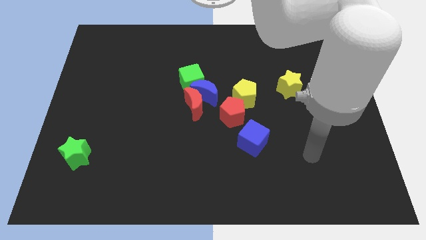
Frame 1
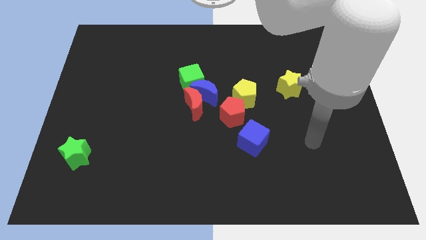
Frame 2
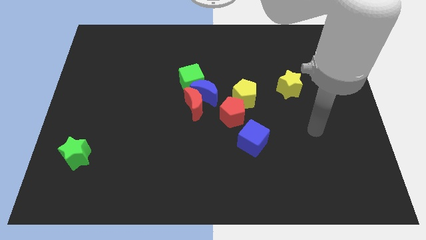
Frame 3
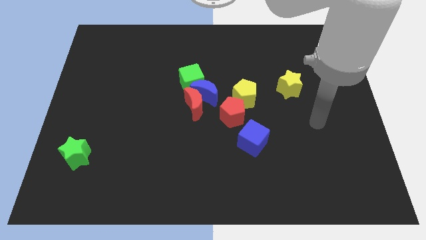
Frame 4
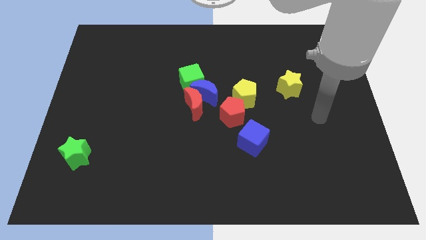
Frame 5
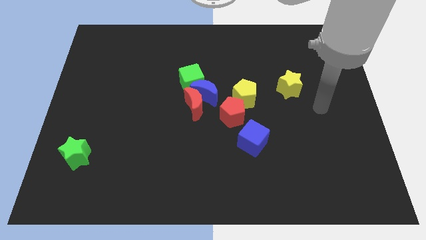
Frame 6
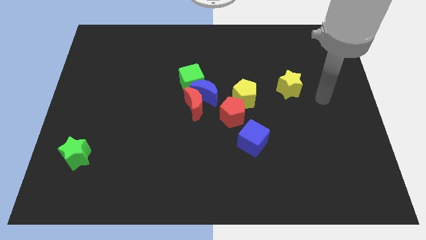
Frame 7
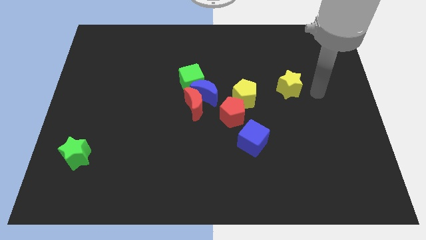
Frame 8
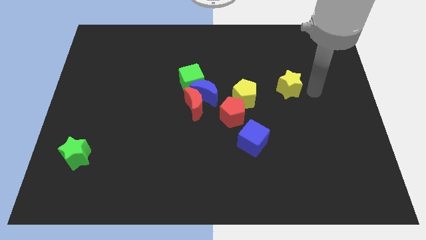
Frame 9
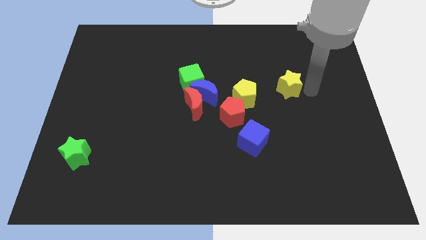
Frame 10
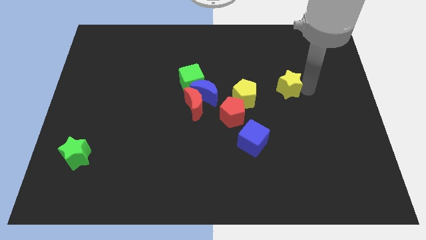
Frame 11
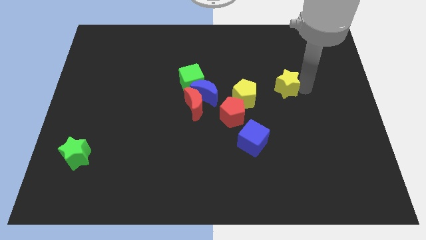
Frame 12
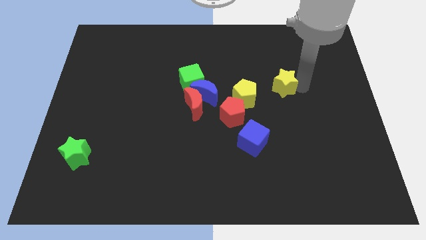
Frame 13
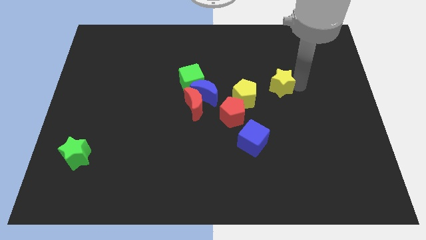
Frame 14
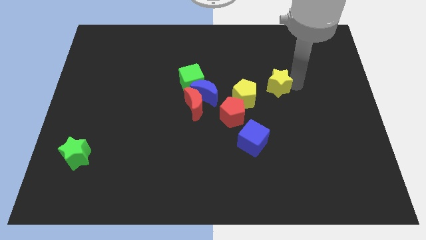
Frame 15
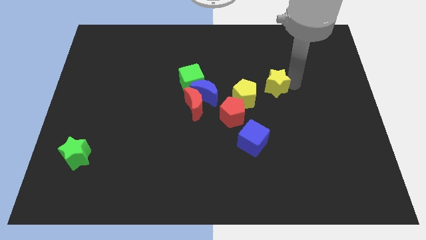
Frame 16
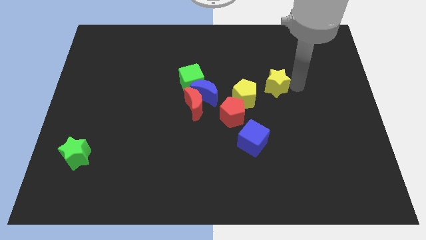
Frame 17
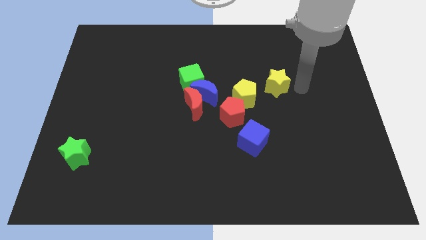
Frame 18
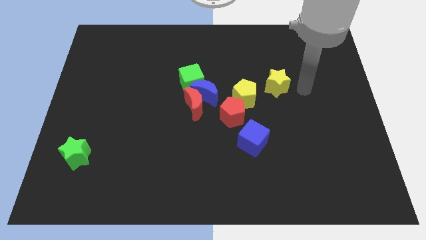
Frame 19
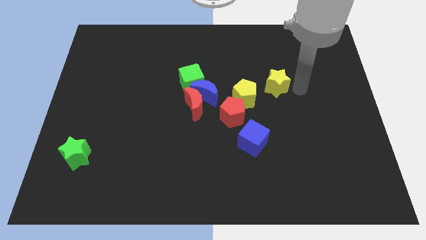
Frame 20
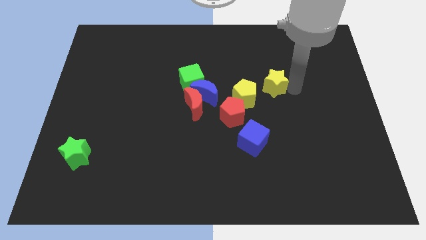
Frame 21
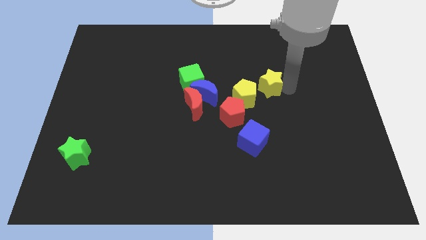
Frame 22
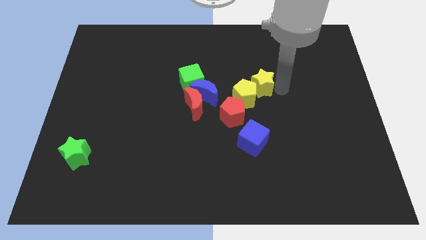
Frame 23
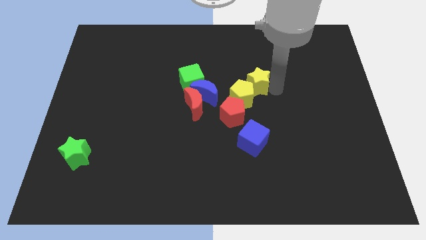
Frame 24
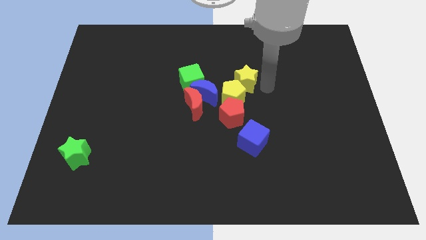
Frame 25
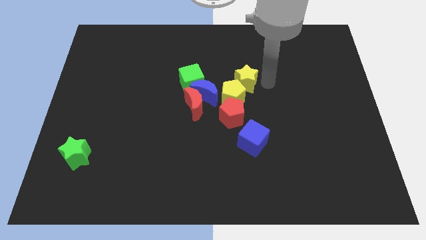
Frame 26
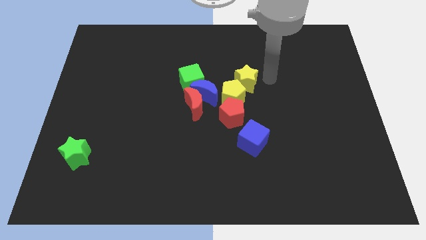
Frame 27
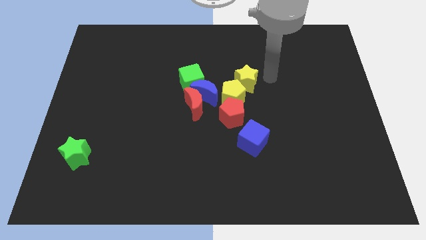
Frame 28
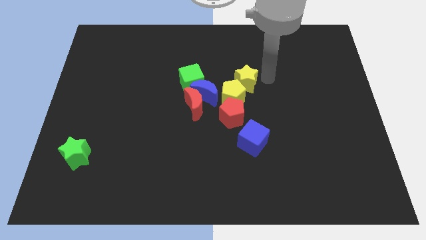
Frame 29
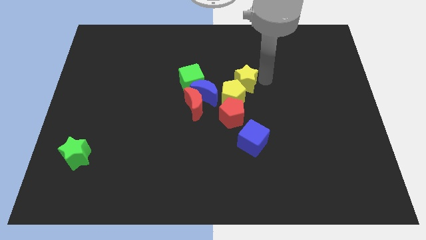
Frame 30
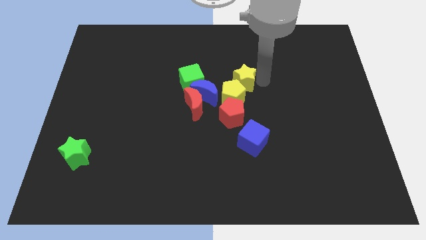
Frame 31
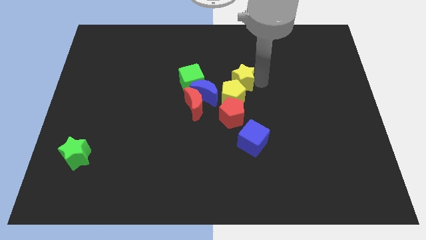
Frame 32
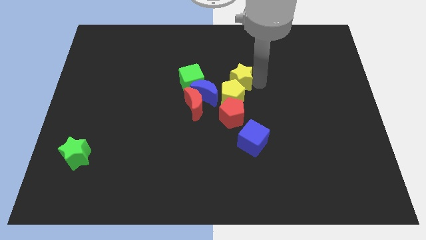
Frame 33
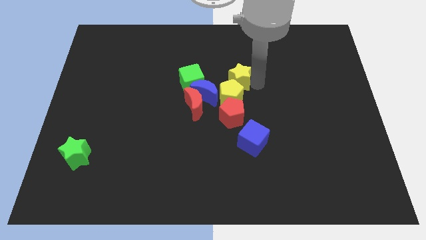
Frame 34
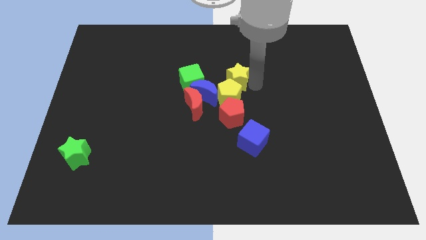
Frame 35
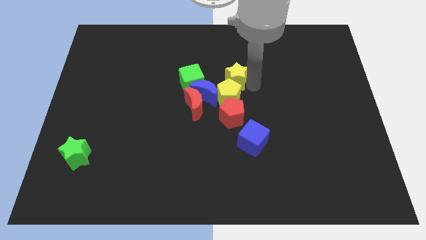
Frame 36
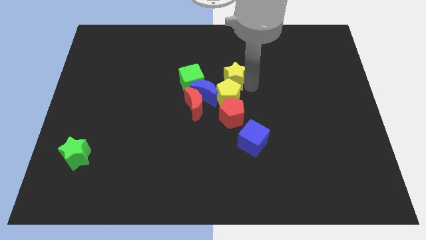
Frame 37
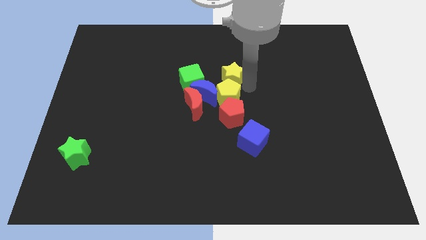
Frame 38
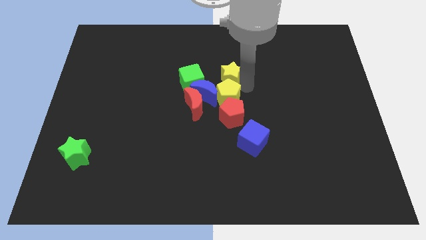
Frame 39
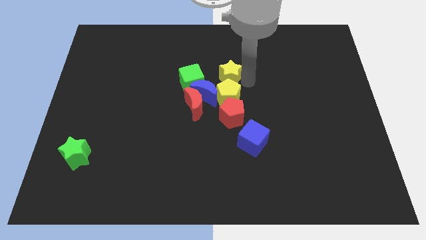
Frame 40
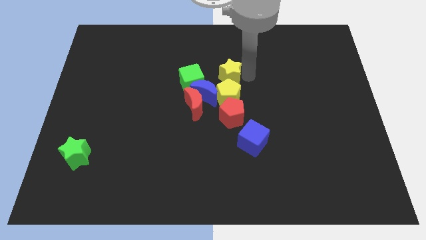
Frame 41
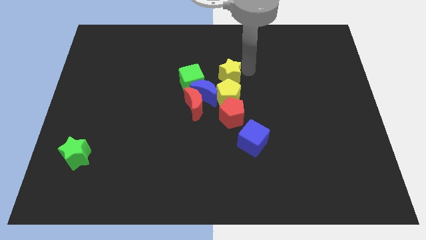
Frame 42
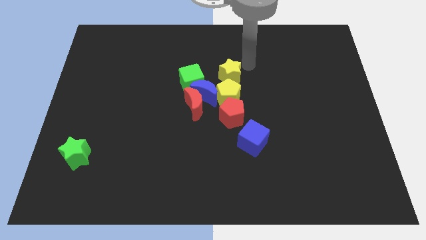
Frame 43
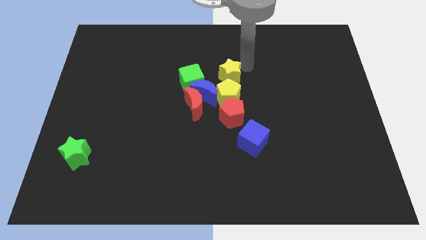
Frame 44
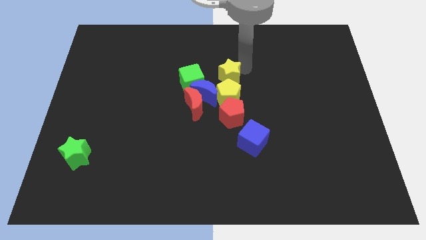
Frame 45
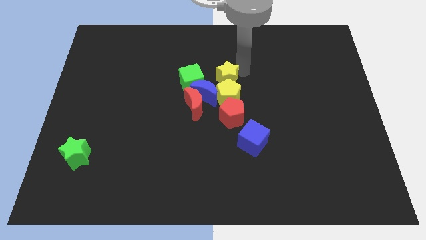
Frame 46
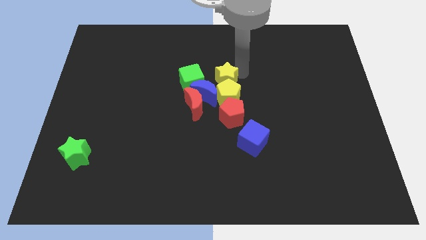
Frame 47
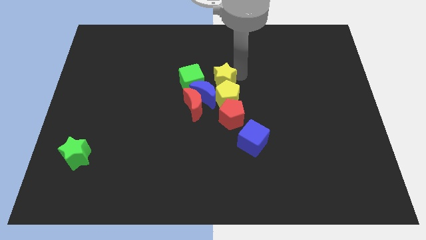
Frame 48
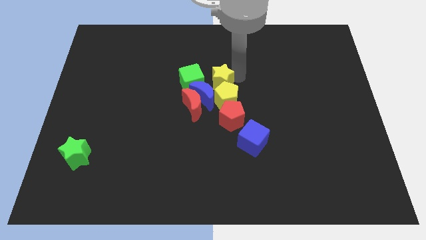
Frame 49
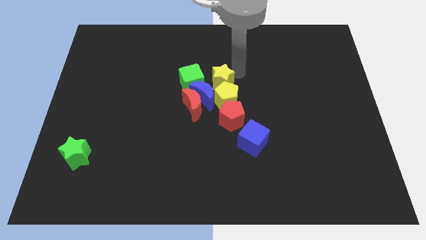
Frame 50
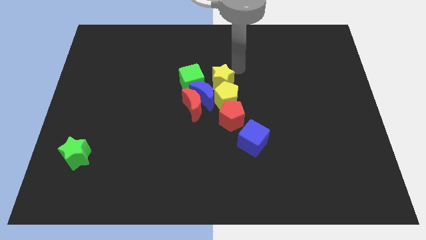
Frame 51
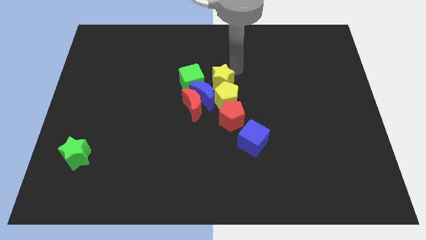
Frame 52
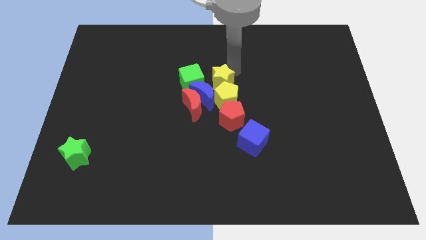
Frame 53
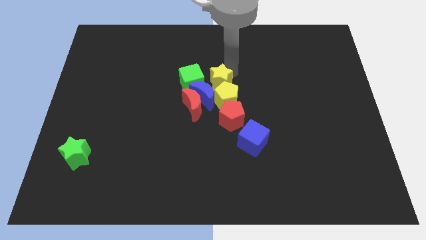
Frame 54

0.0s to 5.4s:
slide the yellow star next to the blue moon

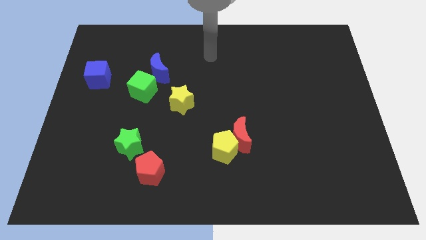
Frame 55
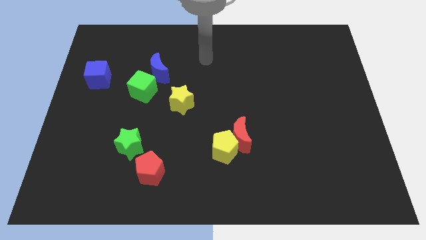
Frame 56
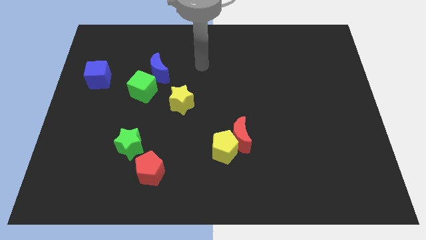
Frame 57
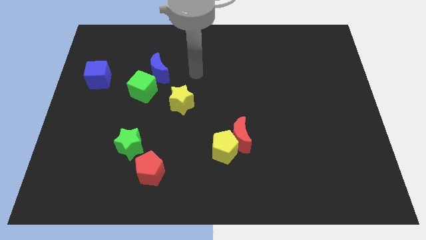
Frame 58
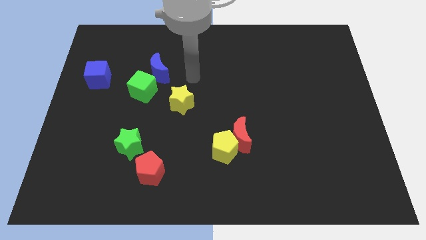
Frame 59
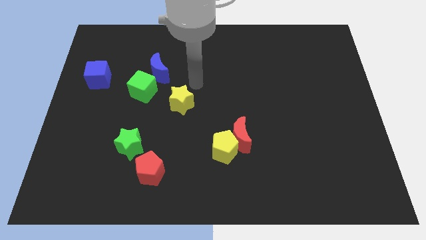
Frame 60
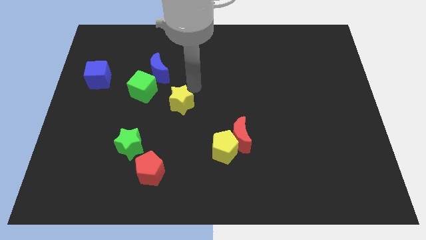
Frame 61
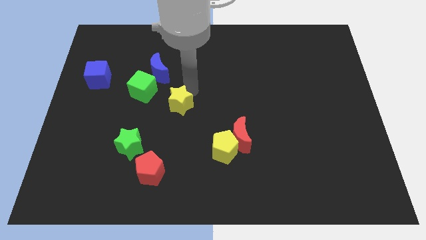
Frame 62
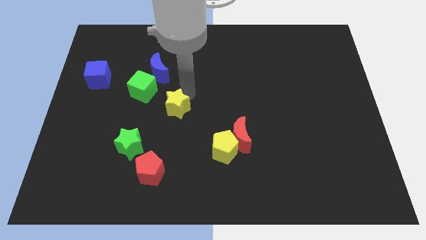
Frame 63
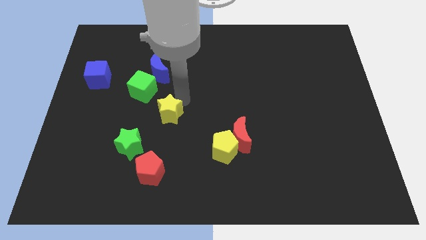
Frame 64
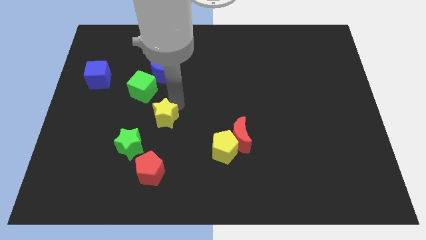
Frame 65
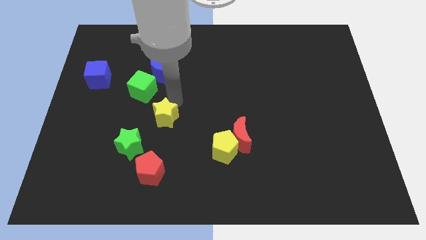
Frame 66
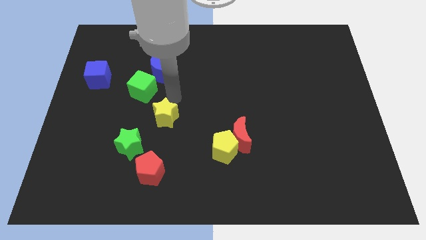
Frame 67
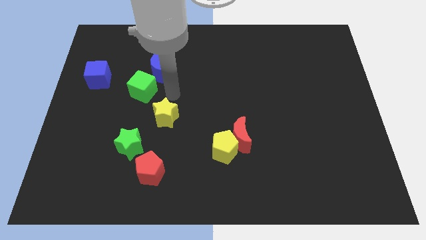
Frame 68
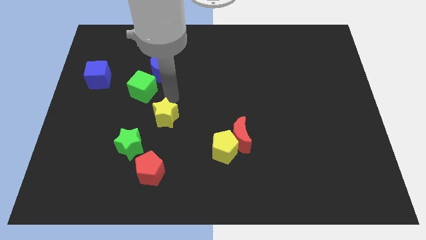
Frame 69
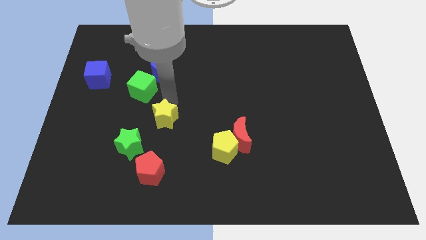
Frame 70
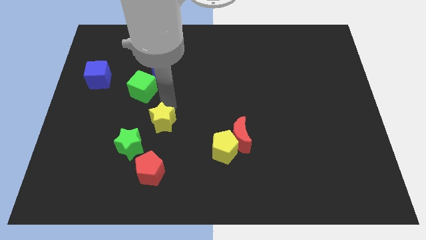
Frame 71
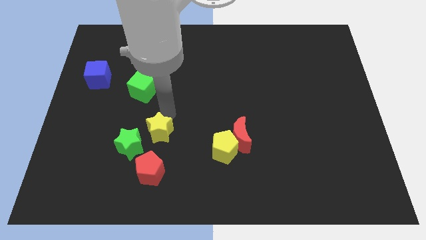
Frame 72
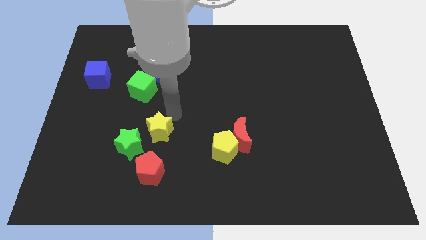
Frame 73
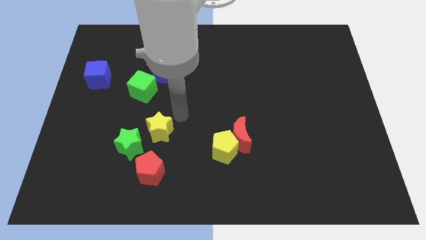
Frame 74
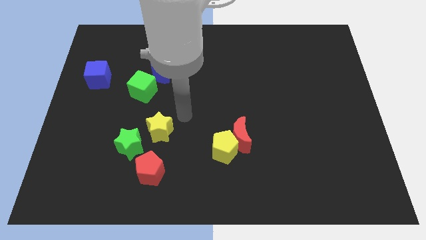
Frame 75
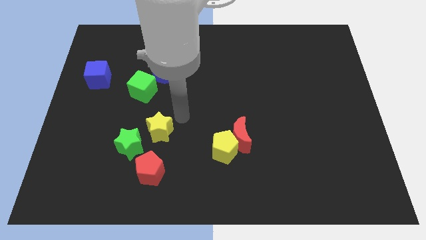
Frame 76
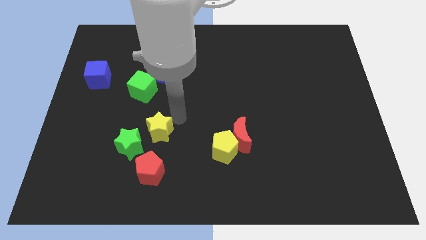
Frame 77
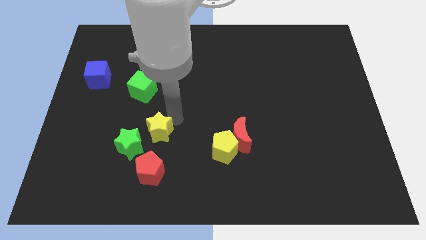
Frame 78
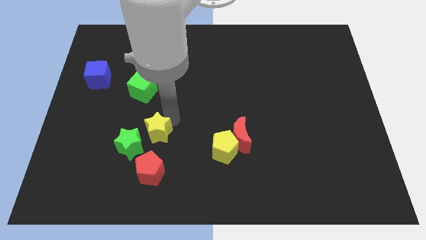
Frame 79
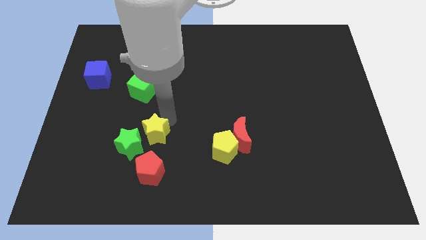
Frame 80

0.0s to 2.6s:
put the yellow star close to the green star
